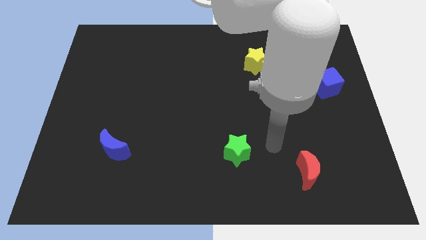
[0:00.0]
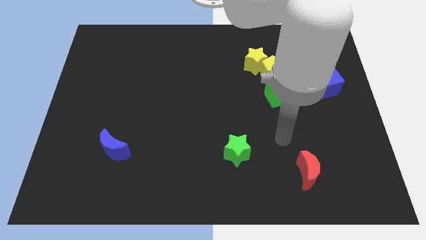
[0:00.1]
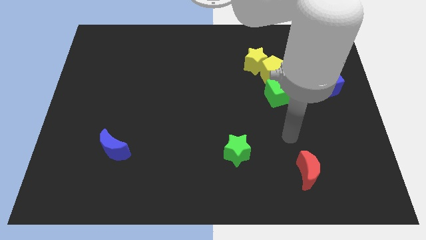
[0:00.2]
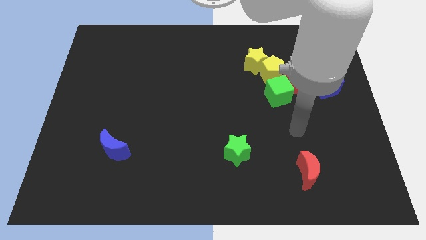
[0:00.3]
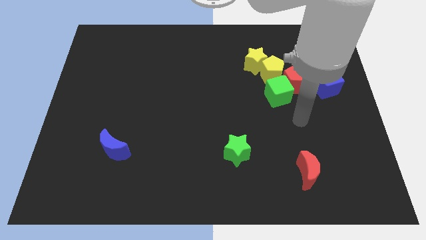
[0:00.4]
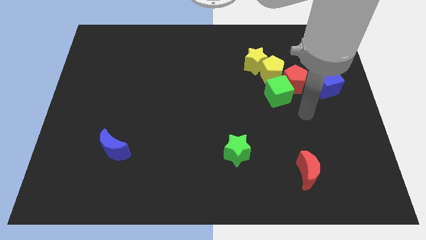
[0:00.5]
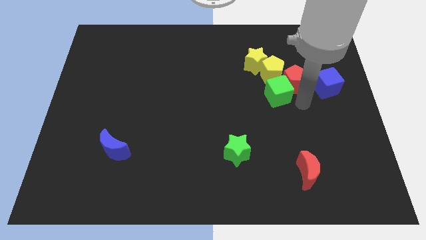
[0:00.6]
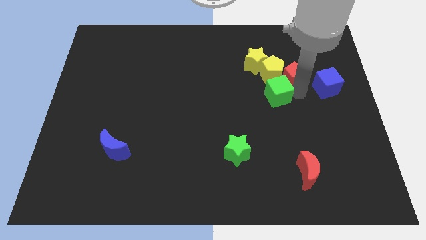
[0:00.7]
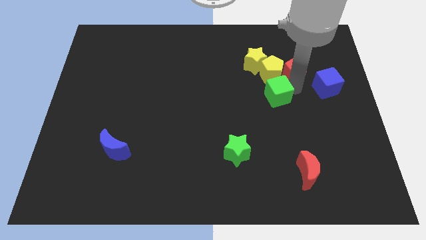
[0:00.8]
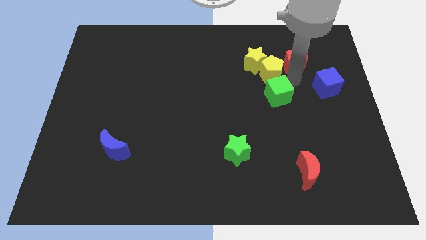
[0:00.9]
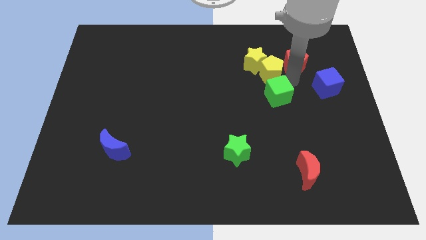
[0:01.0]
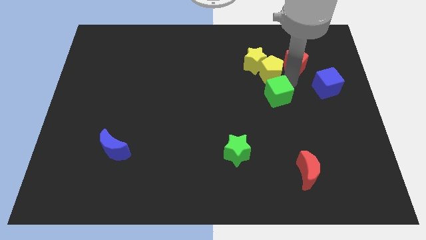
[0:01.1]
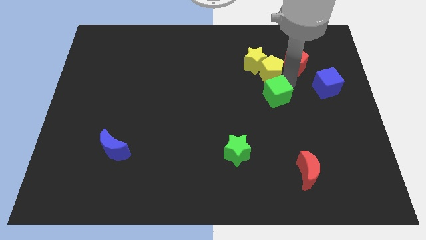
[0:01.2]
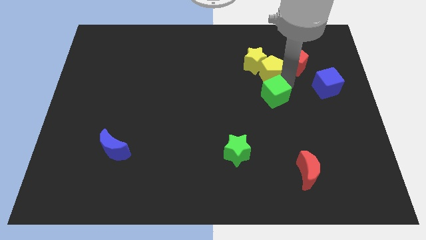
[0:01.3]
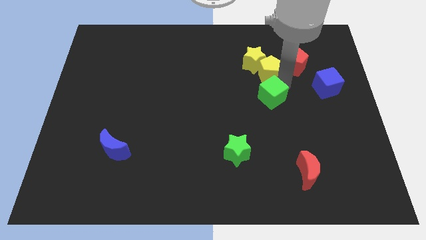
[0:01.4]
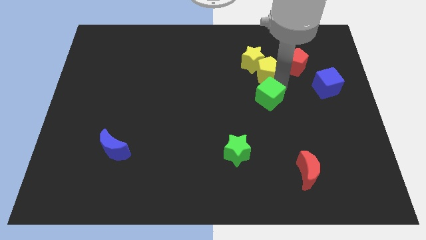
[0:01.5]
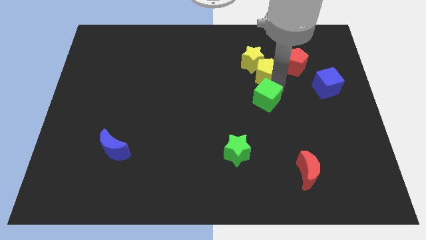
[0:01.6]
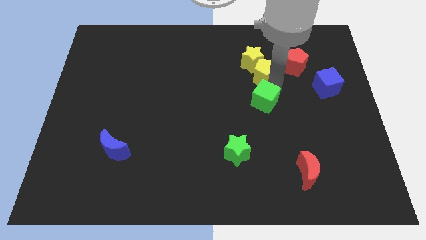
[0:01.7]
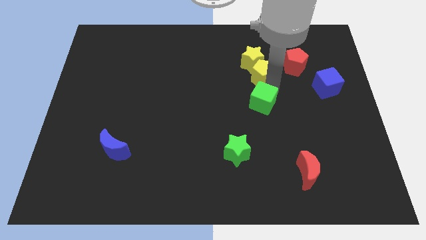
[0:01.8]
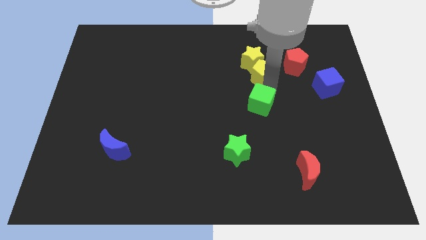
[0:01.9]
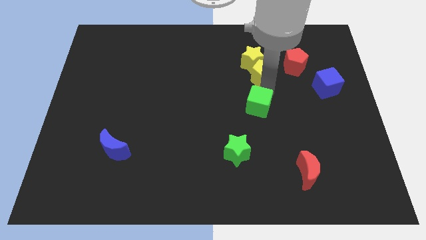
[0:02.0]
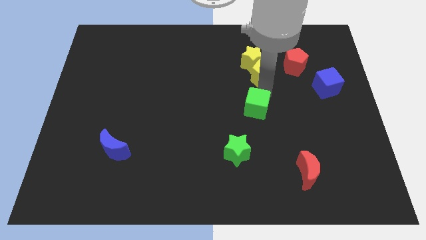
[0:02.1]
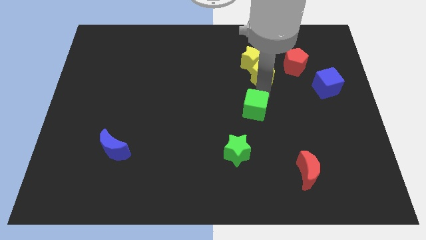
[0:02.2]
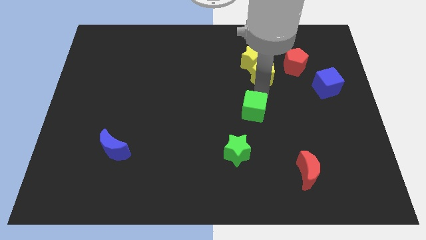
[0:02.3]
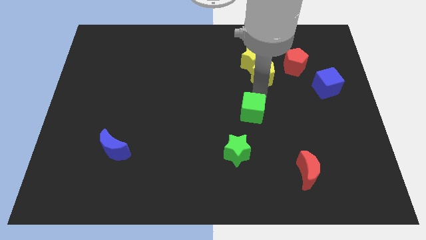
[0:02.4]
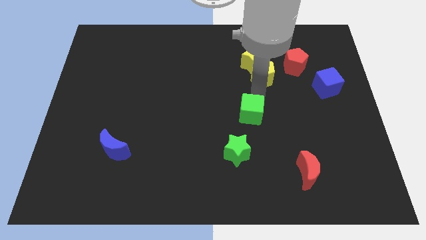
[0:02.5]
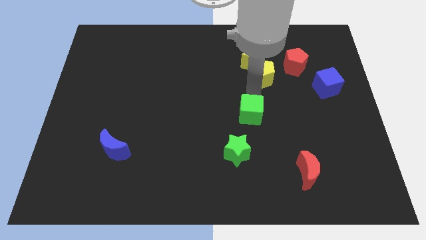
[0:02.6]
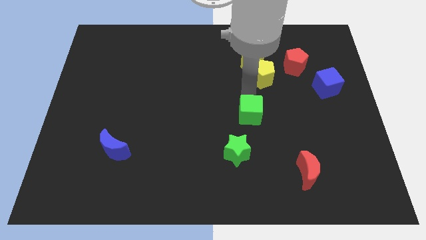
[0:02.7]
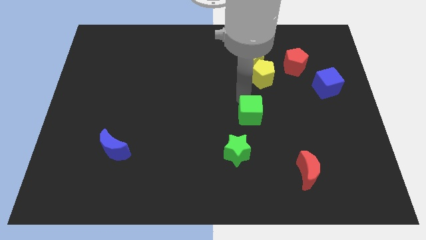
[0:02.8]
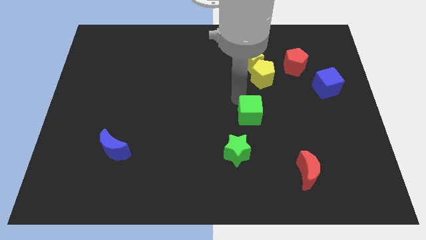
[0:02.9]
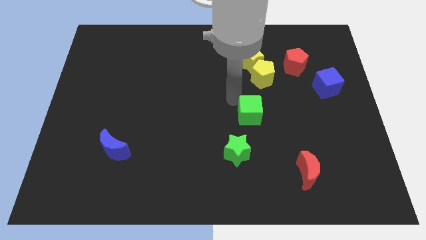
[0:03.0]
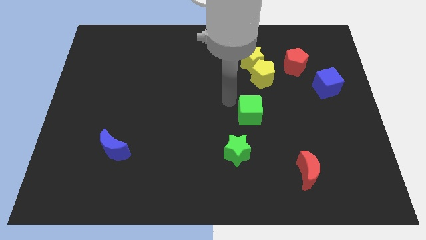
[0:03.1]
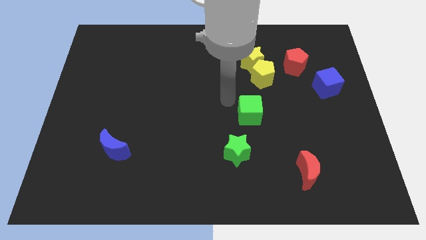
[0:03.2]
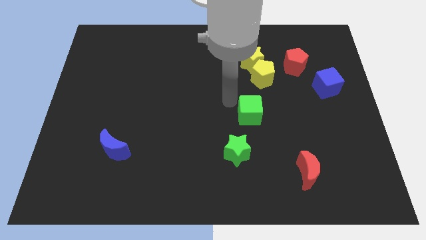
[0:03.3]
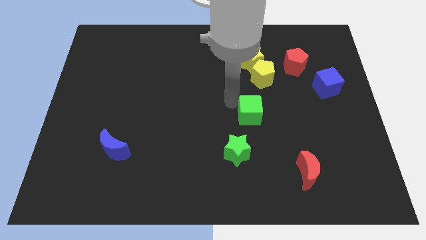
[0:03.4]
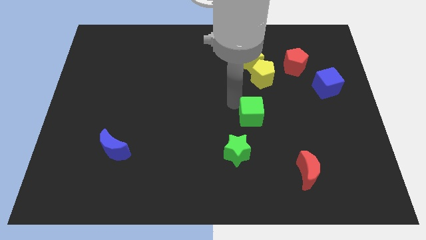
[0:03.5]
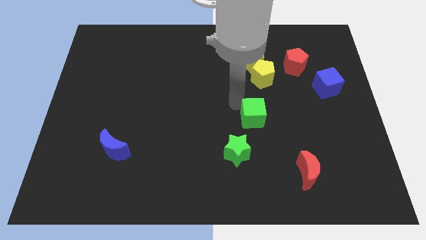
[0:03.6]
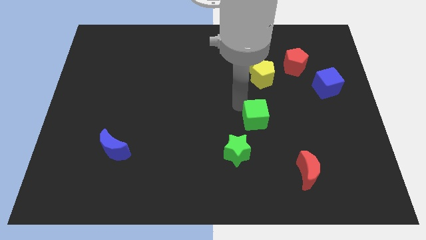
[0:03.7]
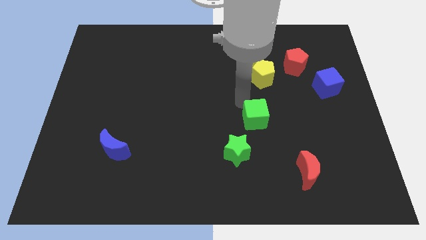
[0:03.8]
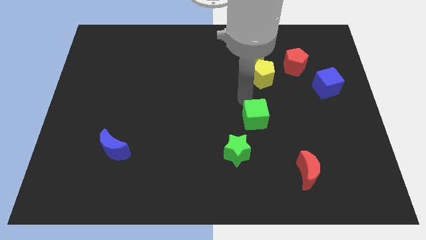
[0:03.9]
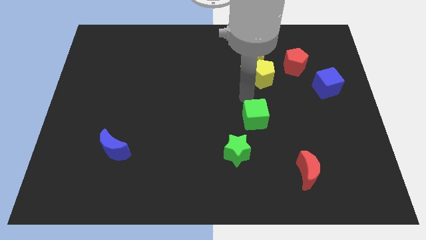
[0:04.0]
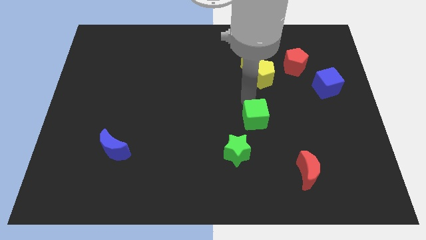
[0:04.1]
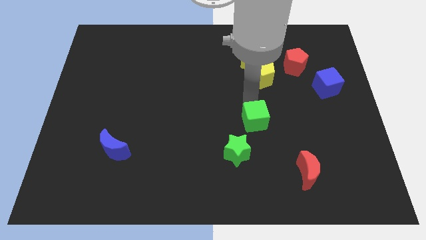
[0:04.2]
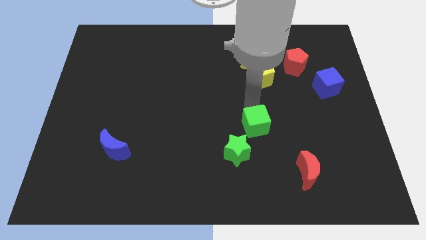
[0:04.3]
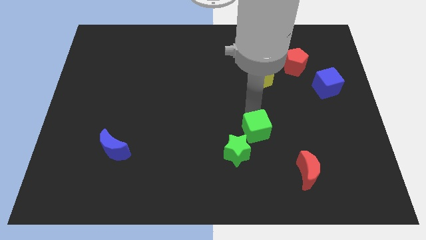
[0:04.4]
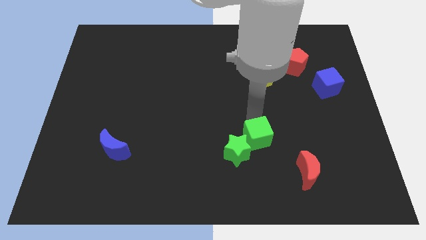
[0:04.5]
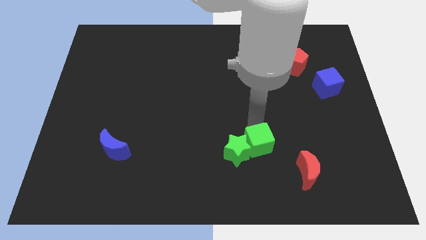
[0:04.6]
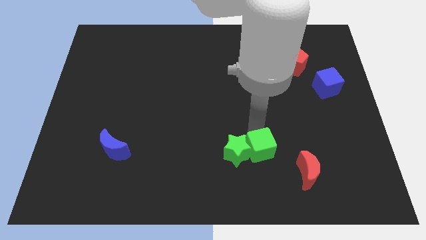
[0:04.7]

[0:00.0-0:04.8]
put the green cube to the bottom right of the green star

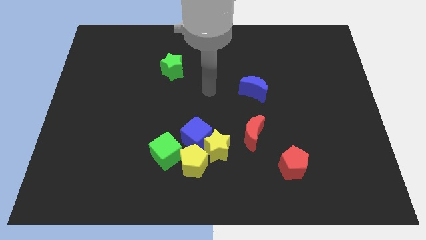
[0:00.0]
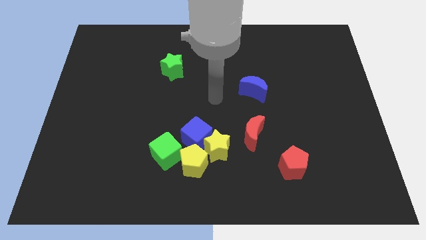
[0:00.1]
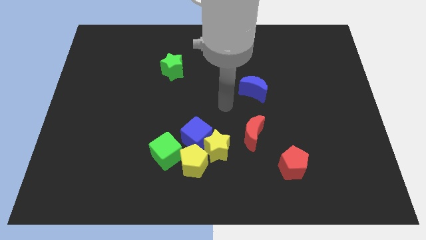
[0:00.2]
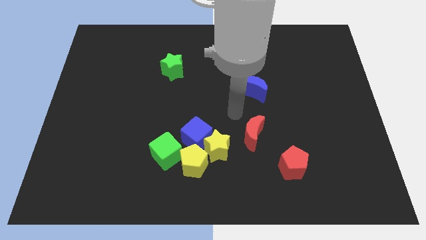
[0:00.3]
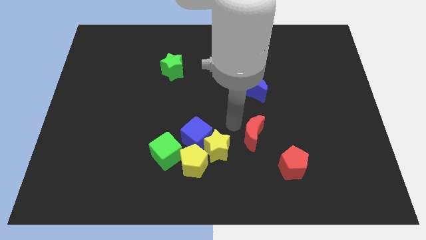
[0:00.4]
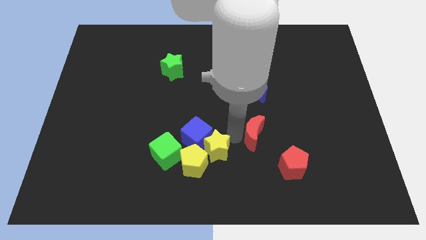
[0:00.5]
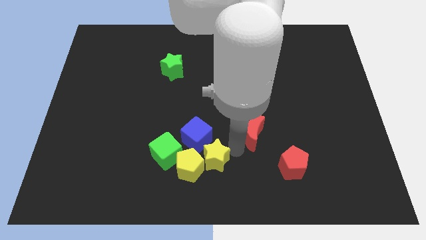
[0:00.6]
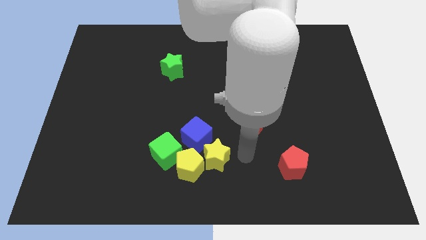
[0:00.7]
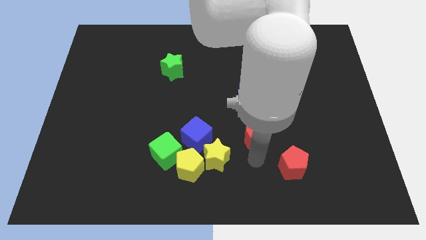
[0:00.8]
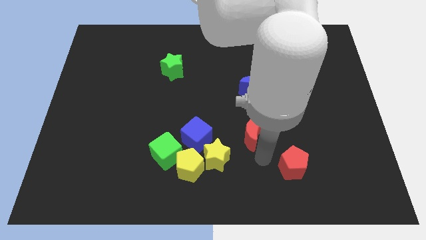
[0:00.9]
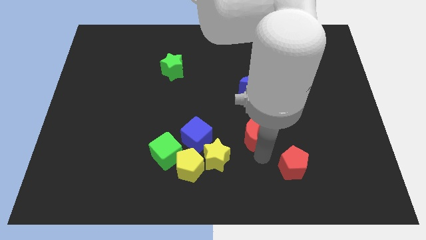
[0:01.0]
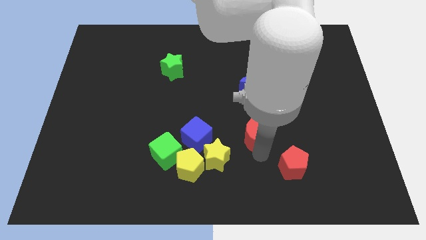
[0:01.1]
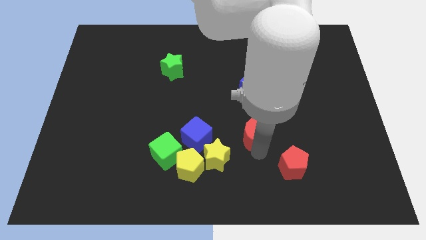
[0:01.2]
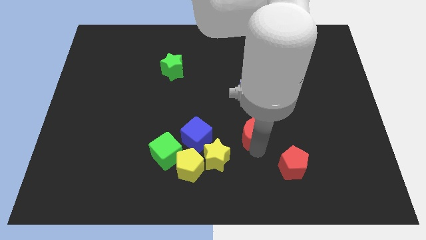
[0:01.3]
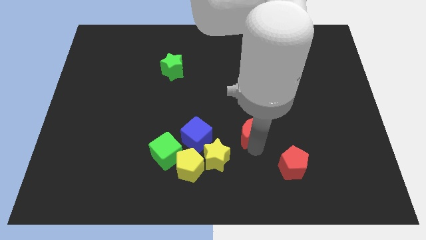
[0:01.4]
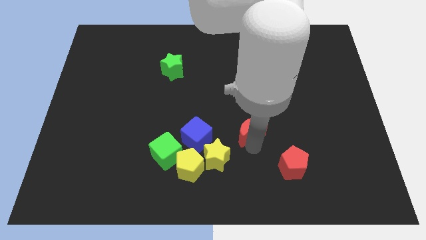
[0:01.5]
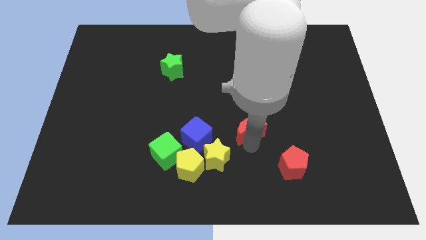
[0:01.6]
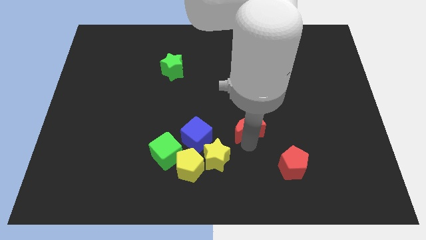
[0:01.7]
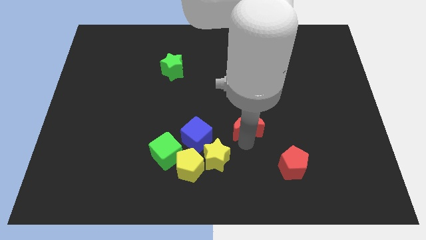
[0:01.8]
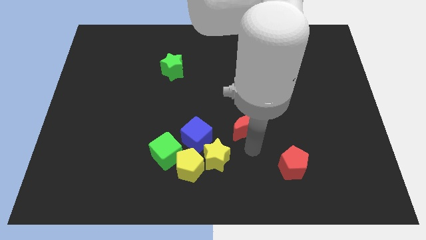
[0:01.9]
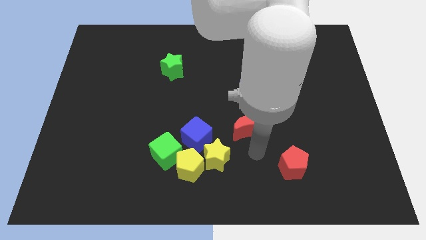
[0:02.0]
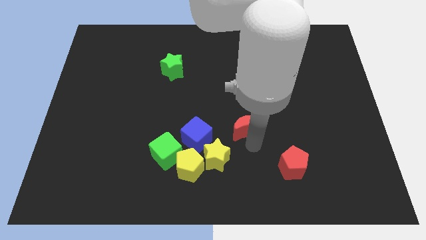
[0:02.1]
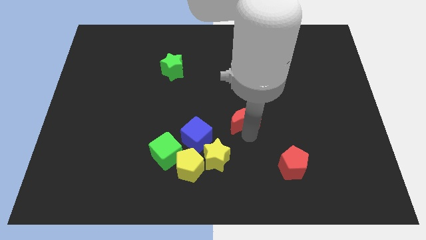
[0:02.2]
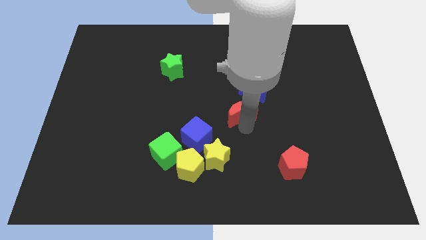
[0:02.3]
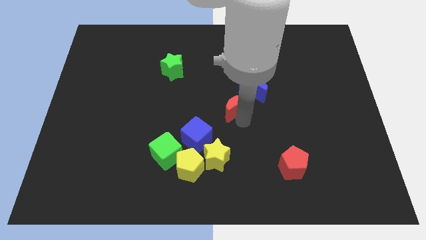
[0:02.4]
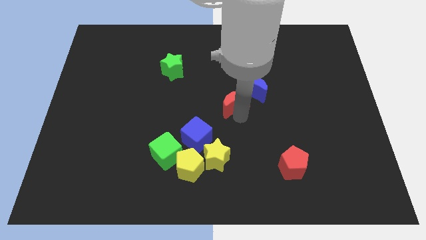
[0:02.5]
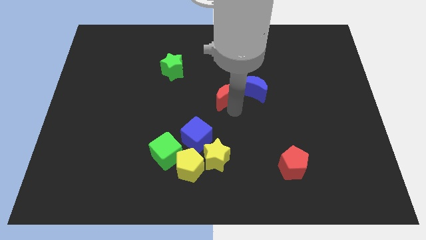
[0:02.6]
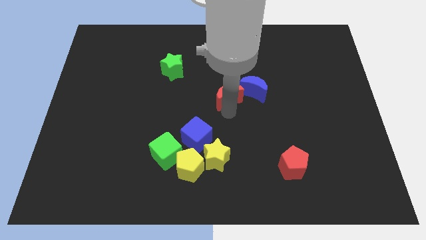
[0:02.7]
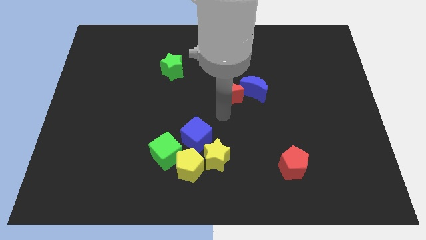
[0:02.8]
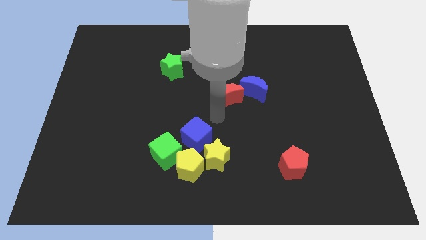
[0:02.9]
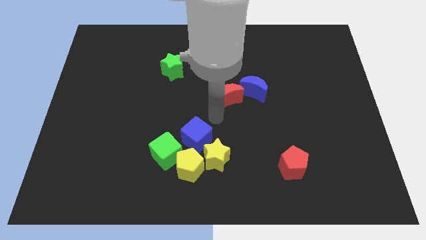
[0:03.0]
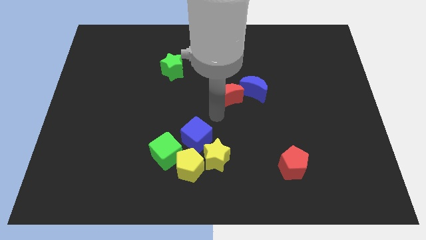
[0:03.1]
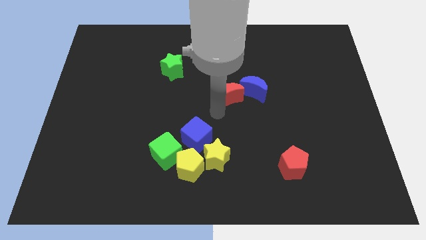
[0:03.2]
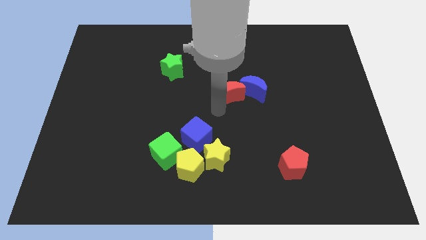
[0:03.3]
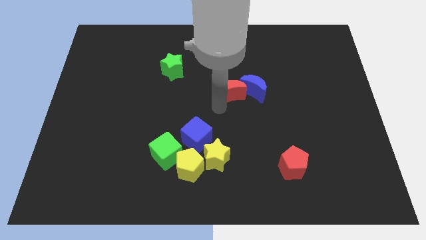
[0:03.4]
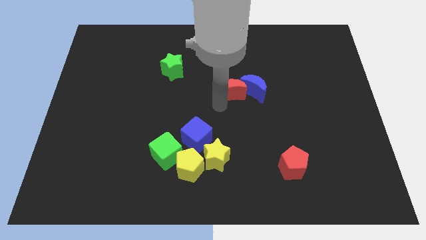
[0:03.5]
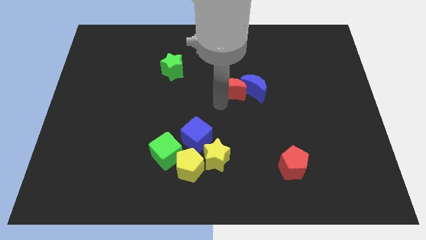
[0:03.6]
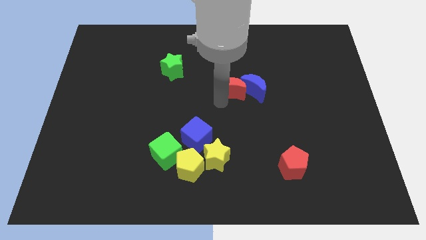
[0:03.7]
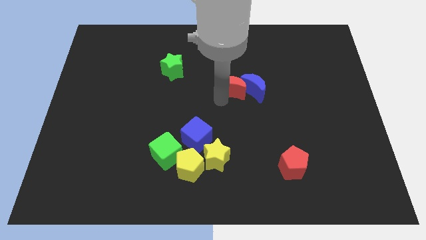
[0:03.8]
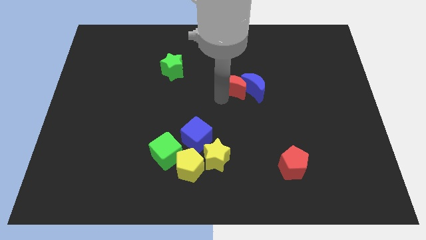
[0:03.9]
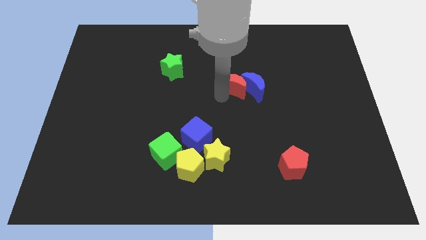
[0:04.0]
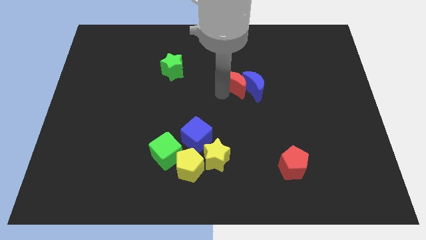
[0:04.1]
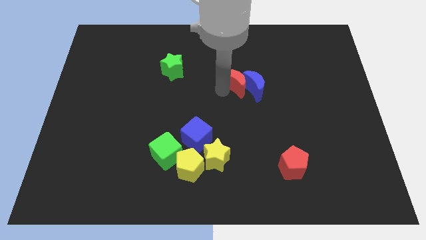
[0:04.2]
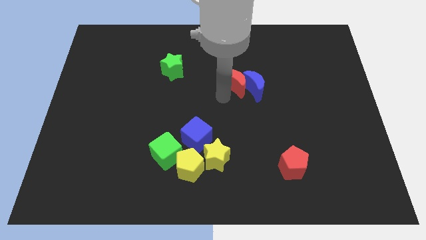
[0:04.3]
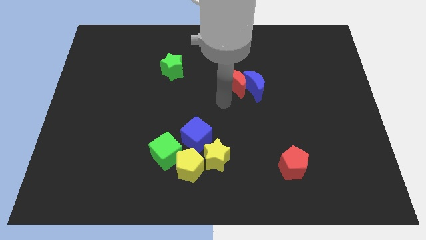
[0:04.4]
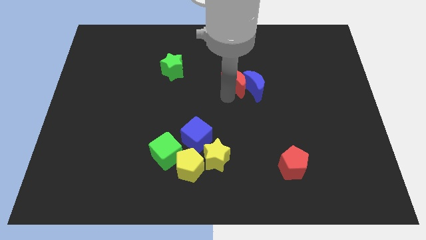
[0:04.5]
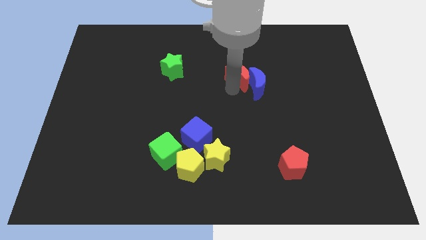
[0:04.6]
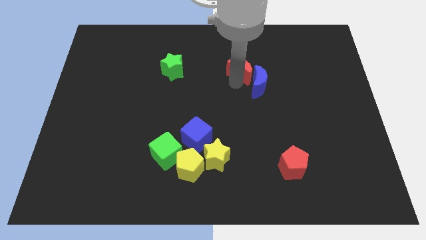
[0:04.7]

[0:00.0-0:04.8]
put the red moon to the top side of the blue moon
